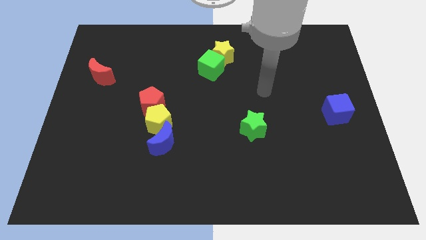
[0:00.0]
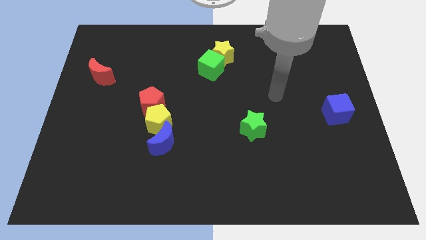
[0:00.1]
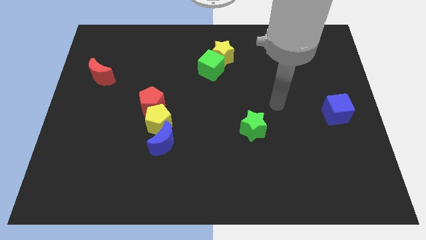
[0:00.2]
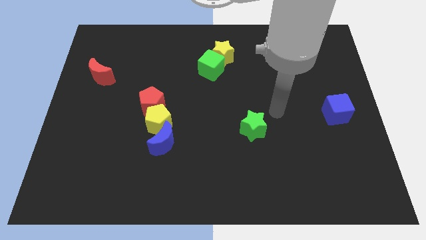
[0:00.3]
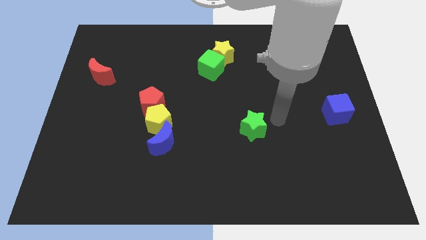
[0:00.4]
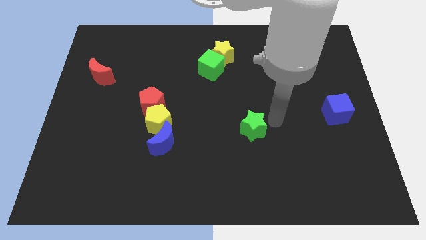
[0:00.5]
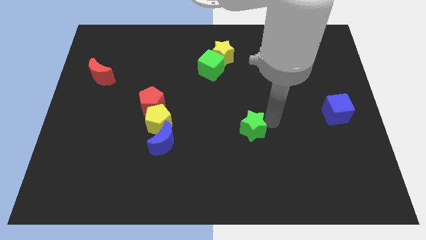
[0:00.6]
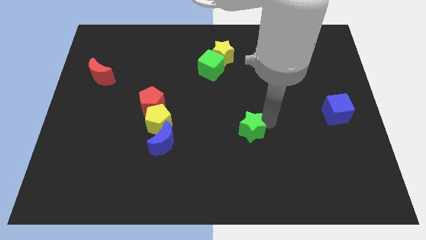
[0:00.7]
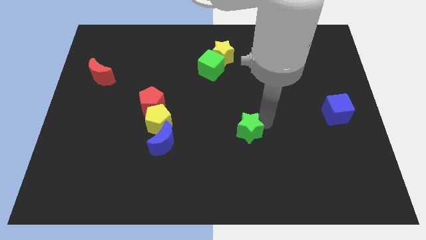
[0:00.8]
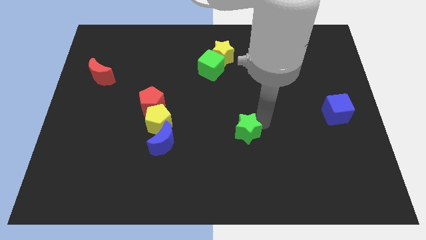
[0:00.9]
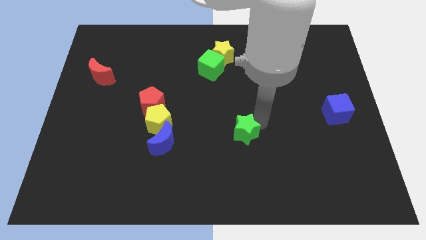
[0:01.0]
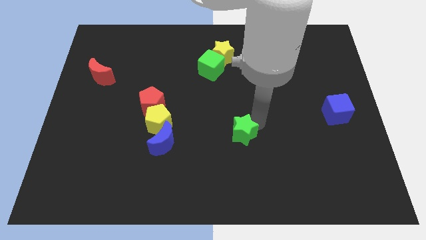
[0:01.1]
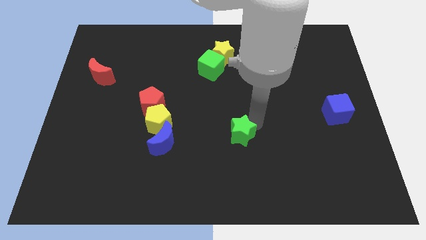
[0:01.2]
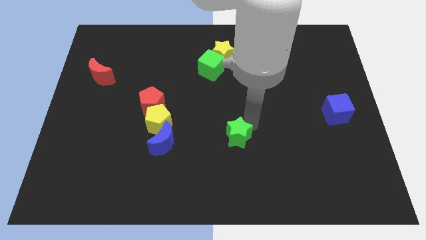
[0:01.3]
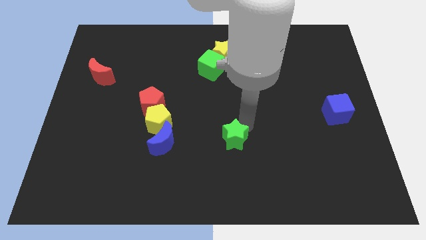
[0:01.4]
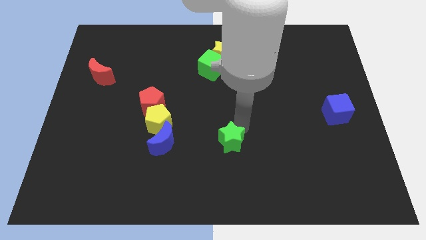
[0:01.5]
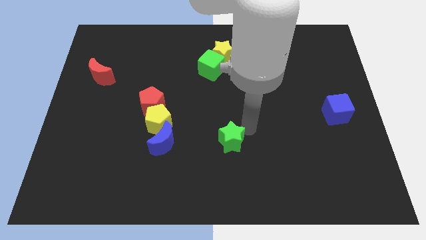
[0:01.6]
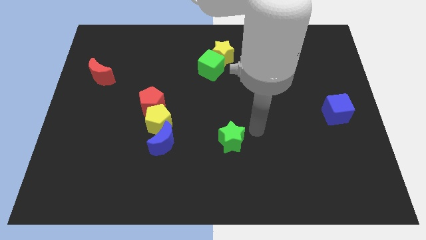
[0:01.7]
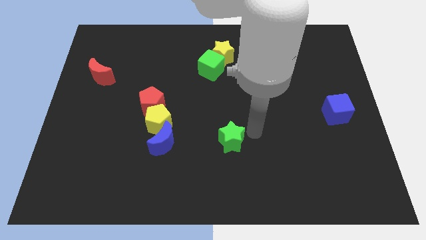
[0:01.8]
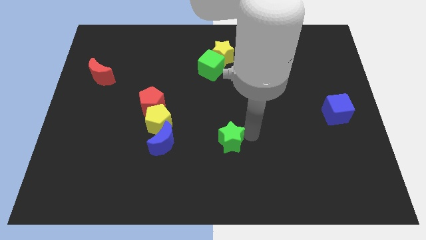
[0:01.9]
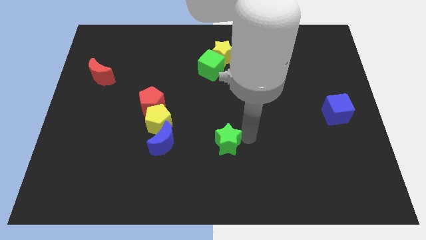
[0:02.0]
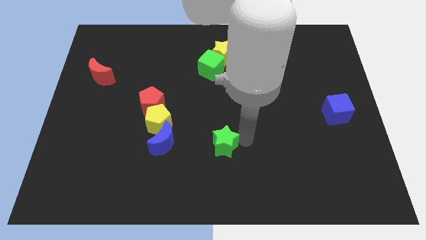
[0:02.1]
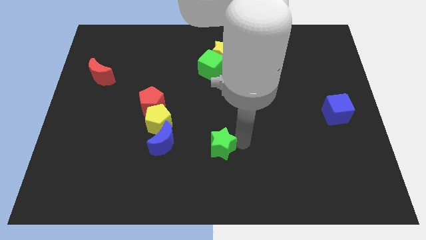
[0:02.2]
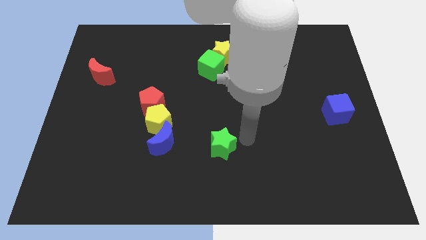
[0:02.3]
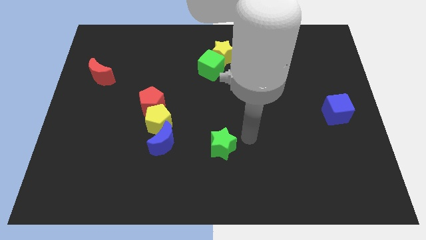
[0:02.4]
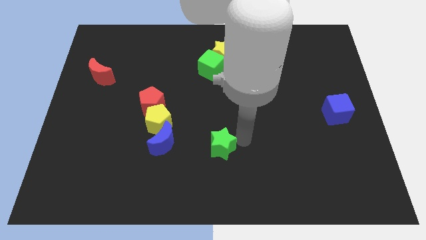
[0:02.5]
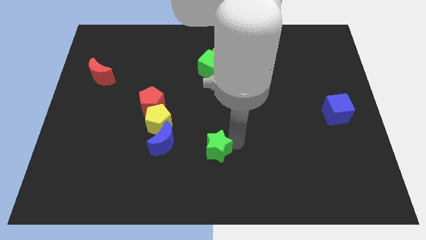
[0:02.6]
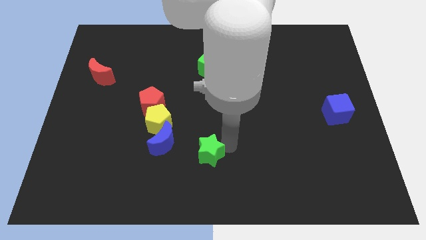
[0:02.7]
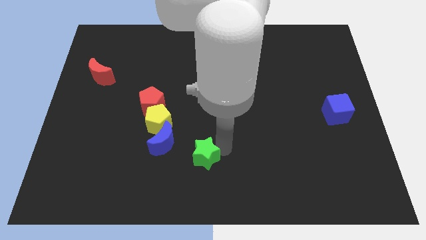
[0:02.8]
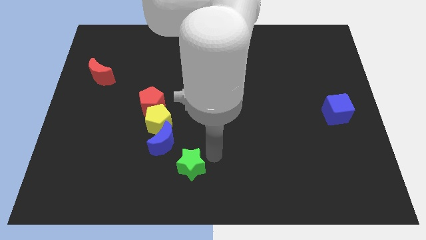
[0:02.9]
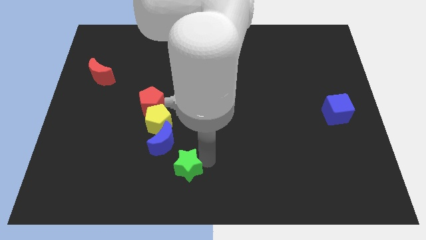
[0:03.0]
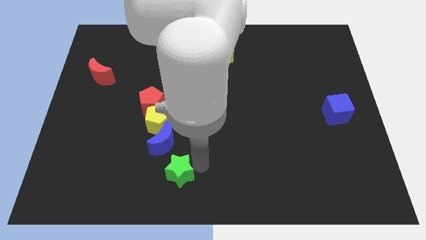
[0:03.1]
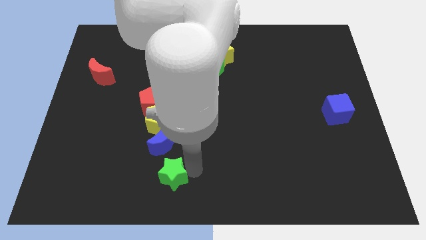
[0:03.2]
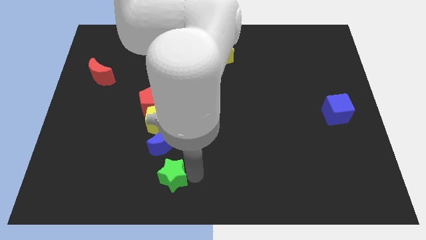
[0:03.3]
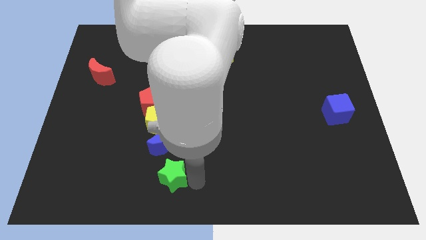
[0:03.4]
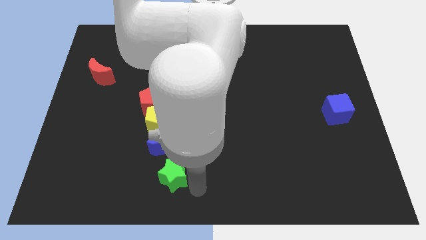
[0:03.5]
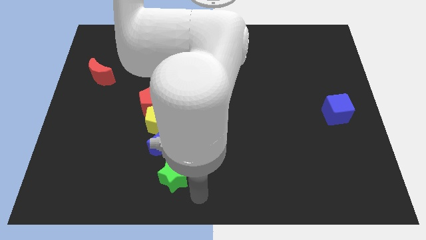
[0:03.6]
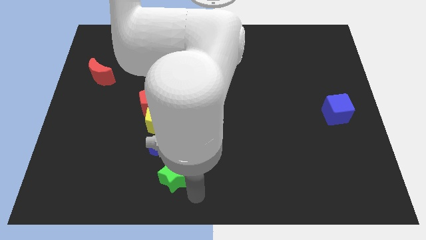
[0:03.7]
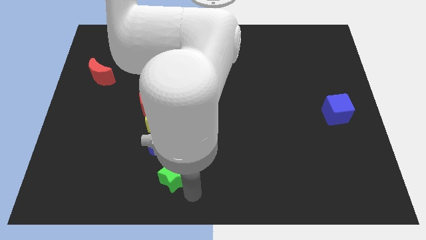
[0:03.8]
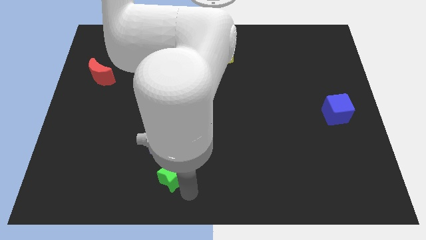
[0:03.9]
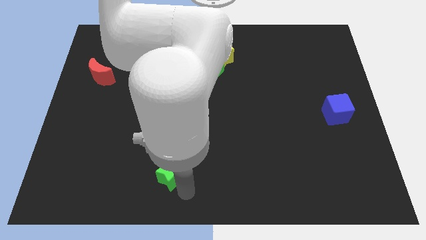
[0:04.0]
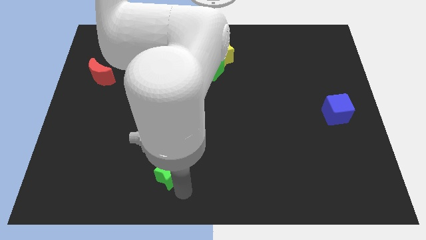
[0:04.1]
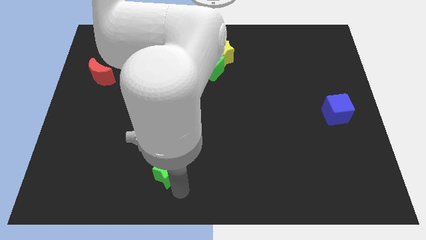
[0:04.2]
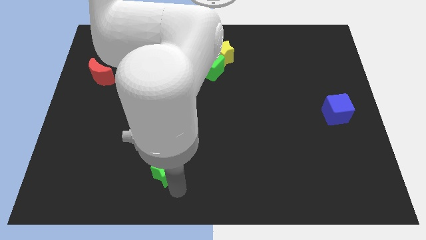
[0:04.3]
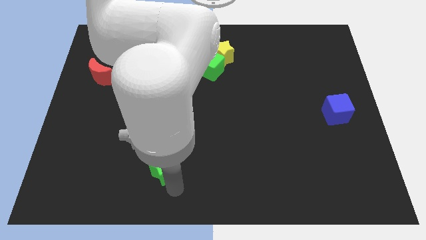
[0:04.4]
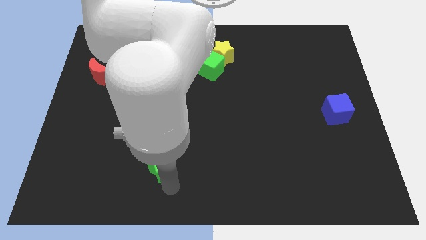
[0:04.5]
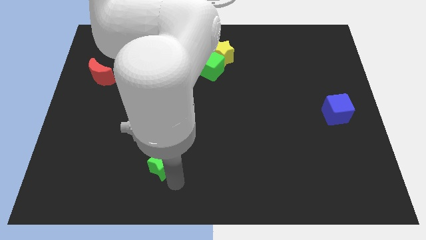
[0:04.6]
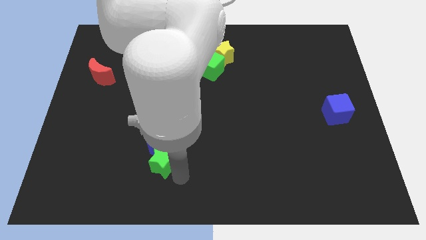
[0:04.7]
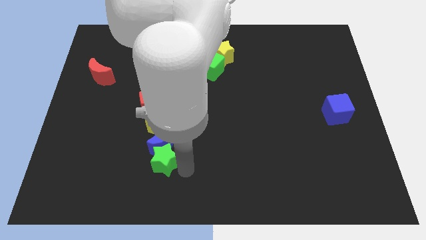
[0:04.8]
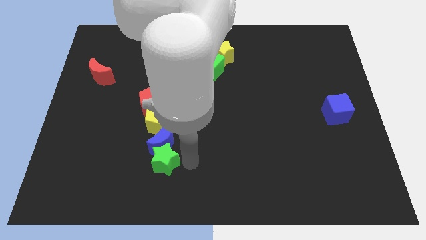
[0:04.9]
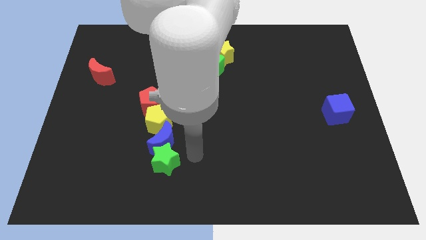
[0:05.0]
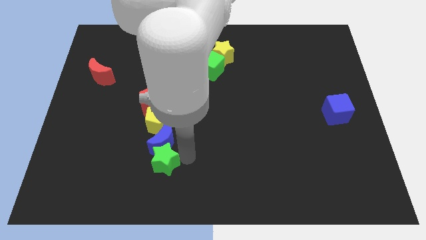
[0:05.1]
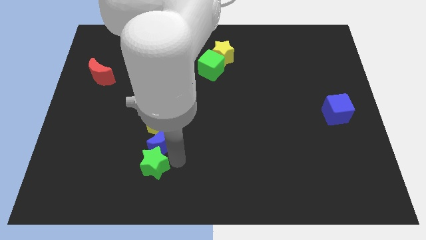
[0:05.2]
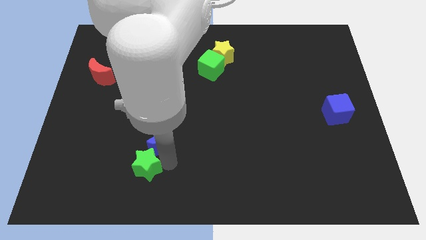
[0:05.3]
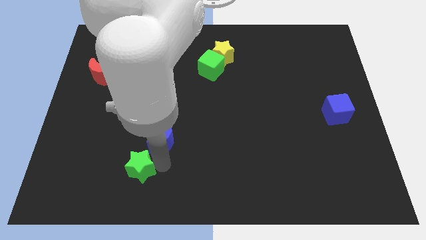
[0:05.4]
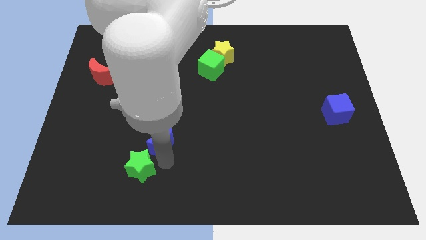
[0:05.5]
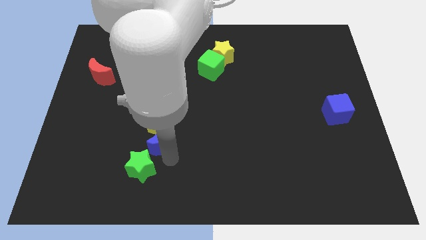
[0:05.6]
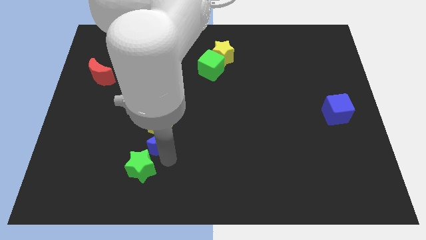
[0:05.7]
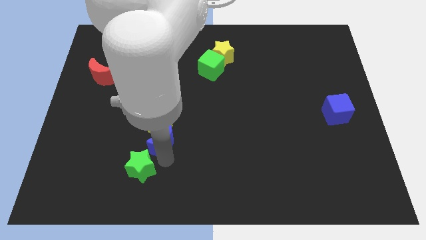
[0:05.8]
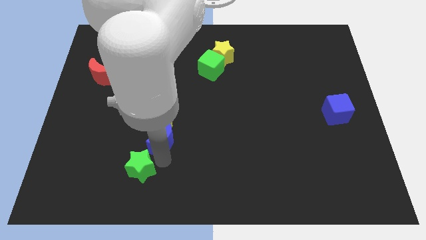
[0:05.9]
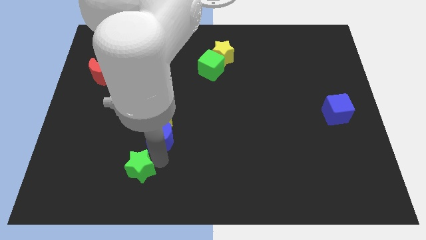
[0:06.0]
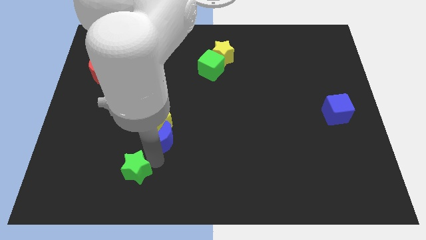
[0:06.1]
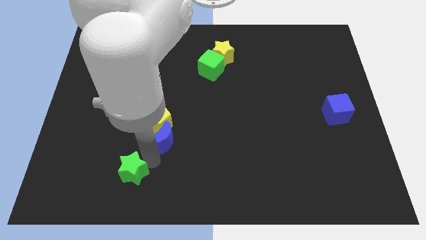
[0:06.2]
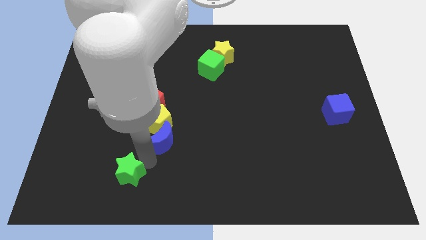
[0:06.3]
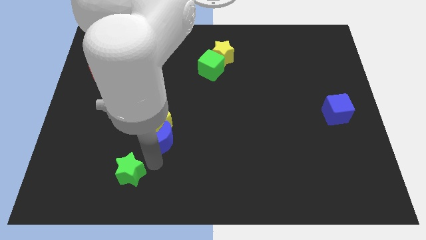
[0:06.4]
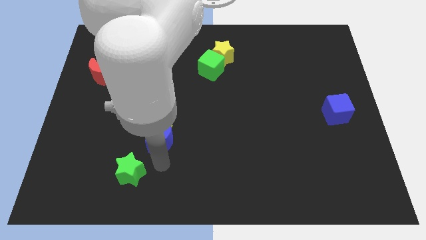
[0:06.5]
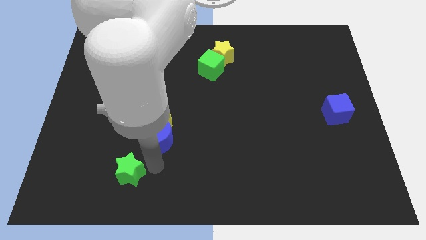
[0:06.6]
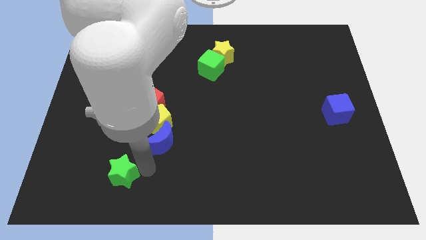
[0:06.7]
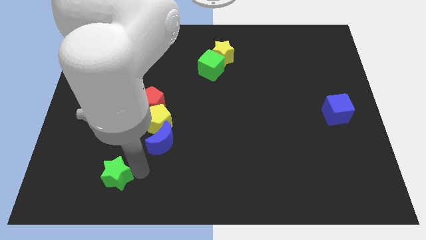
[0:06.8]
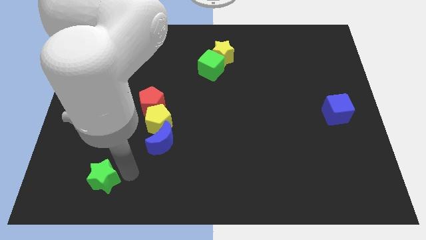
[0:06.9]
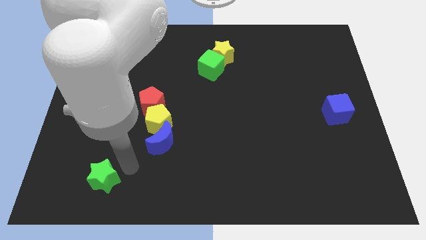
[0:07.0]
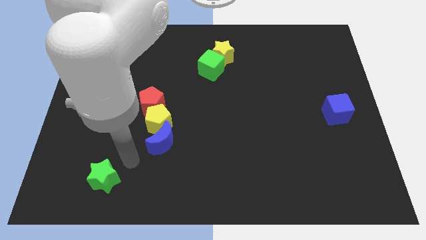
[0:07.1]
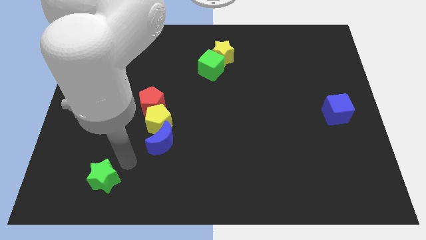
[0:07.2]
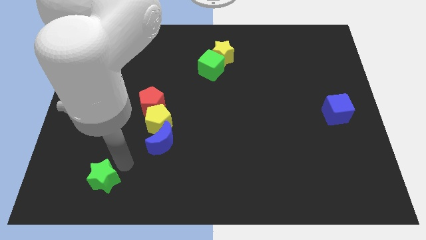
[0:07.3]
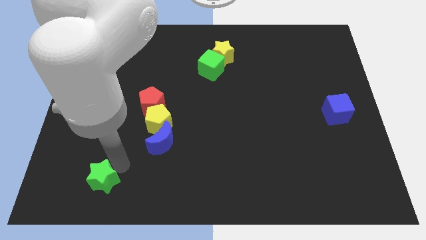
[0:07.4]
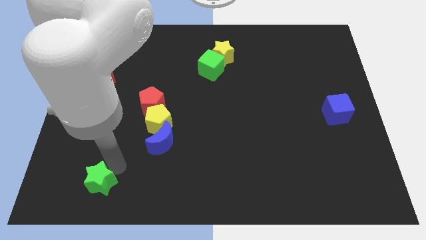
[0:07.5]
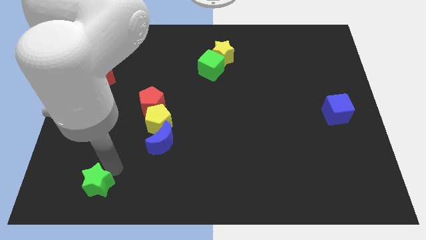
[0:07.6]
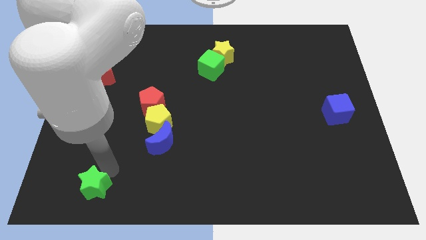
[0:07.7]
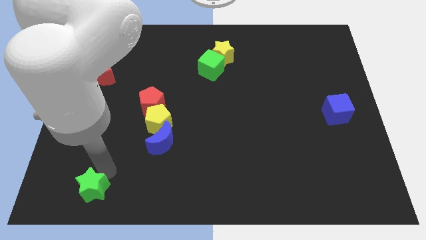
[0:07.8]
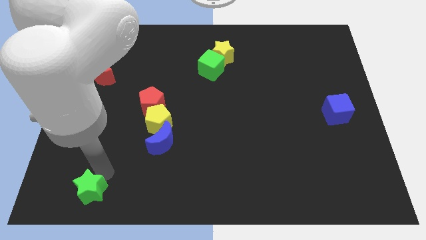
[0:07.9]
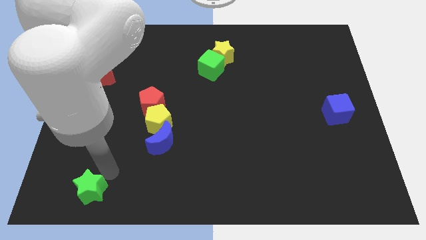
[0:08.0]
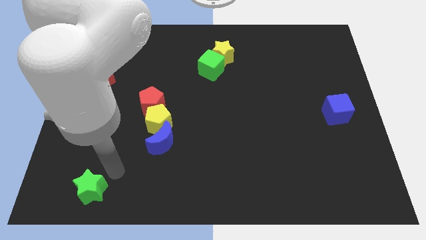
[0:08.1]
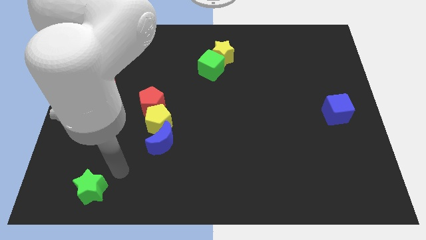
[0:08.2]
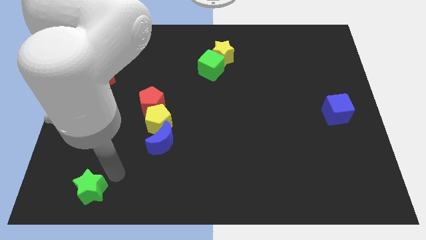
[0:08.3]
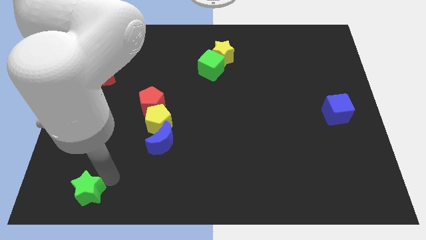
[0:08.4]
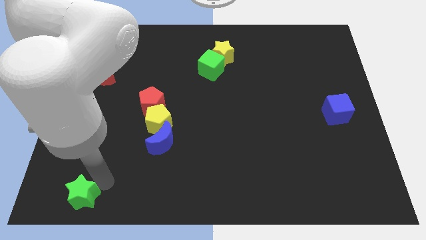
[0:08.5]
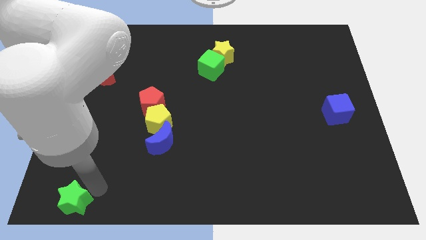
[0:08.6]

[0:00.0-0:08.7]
move the green star to the lower left corner
